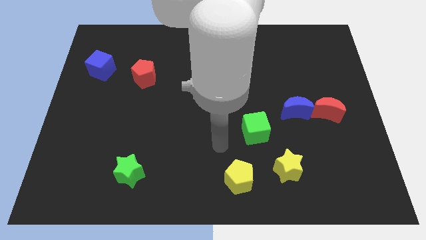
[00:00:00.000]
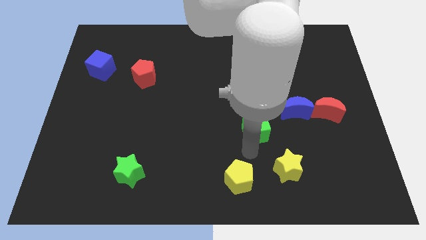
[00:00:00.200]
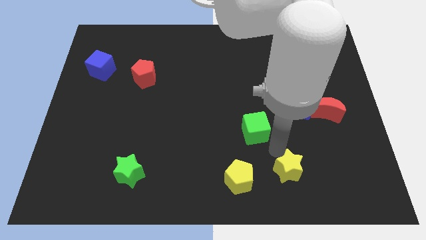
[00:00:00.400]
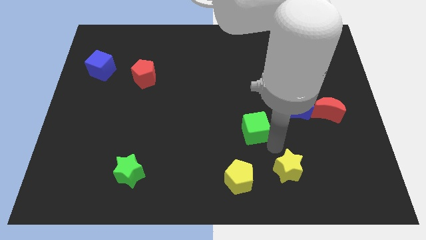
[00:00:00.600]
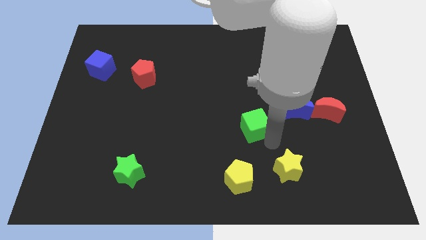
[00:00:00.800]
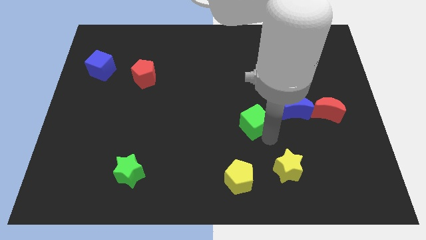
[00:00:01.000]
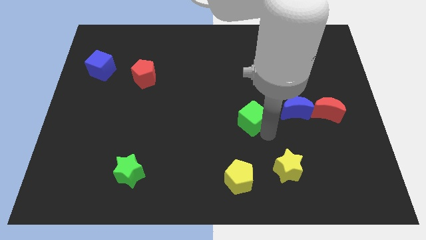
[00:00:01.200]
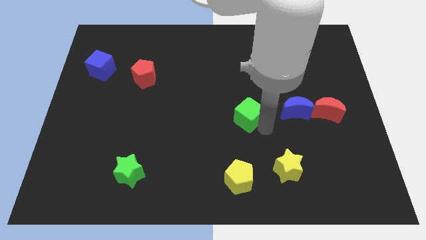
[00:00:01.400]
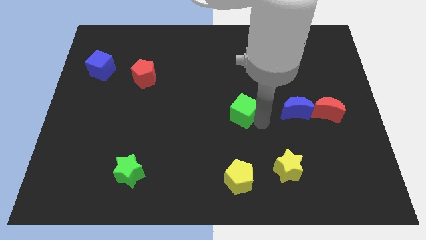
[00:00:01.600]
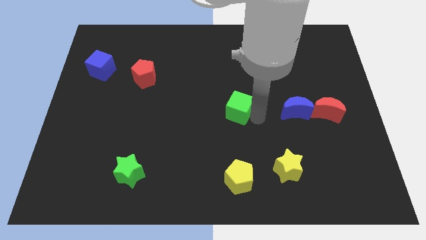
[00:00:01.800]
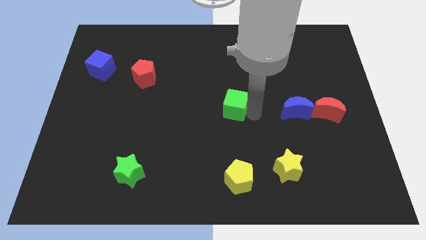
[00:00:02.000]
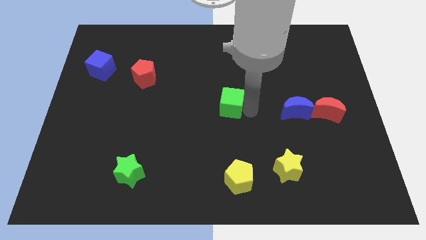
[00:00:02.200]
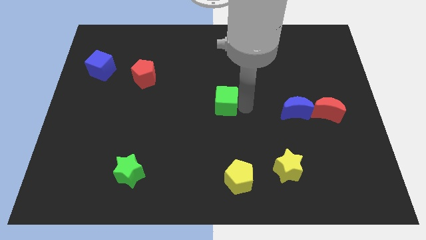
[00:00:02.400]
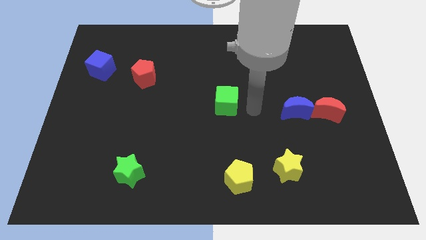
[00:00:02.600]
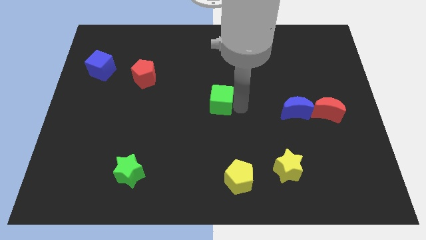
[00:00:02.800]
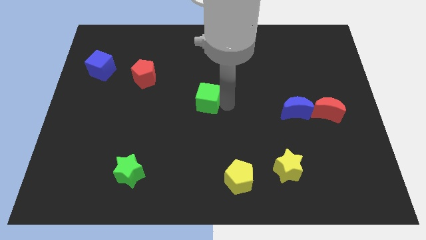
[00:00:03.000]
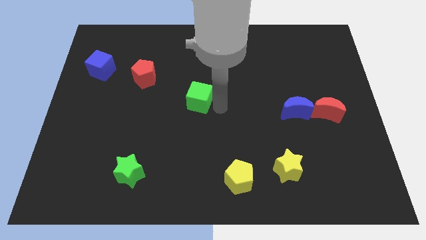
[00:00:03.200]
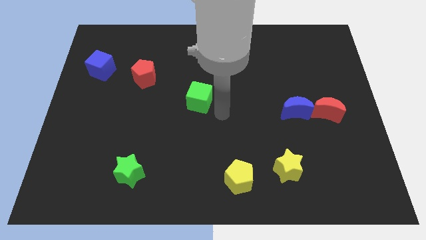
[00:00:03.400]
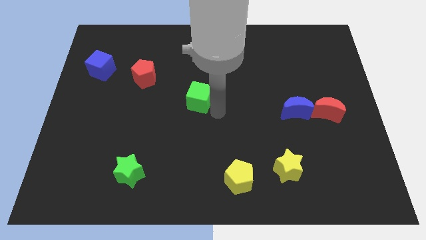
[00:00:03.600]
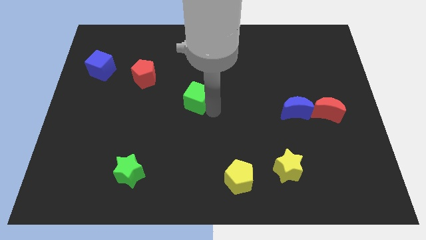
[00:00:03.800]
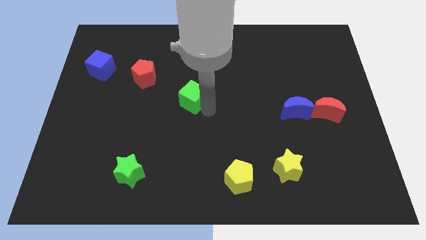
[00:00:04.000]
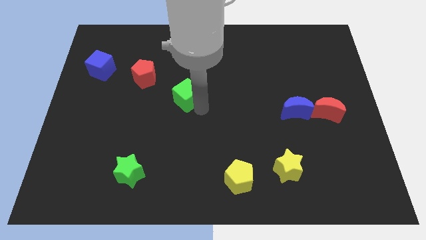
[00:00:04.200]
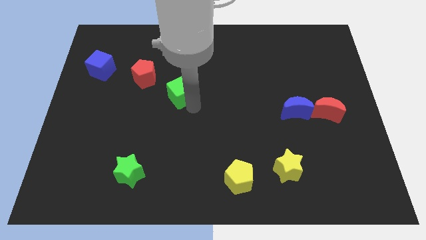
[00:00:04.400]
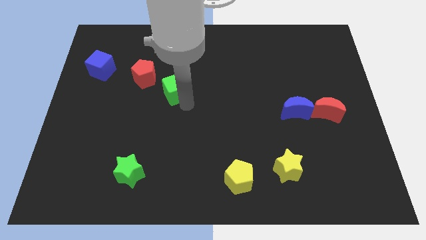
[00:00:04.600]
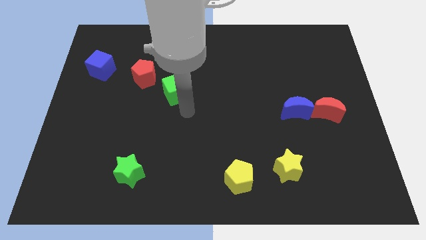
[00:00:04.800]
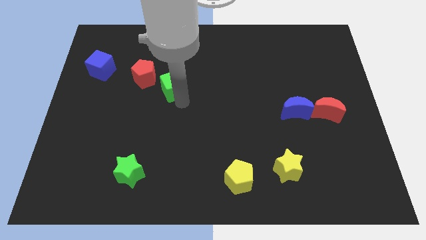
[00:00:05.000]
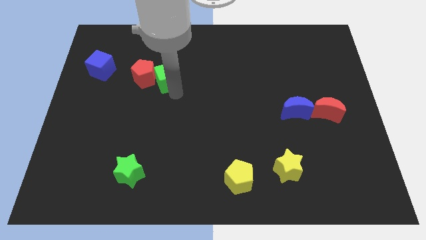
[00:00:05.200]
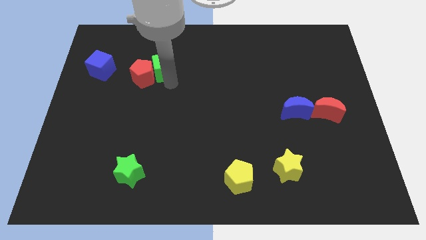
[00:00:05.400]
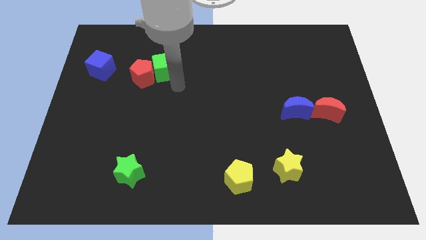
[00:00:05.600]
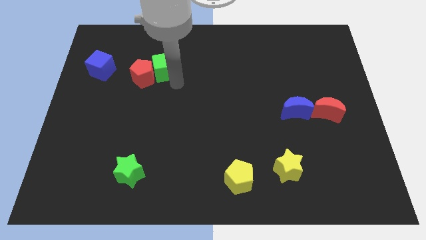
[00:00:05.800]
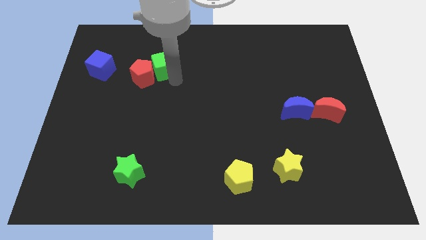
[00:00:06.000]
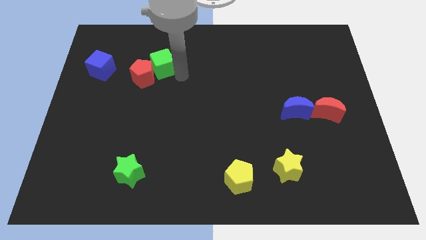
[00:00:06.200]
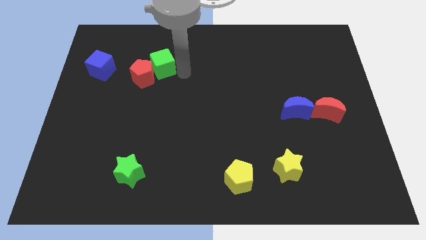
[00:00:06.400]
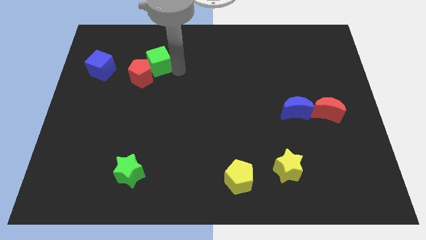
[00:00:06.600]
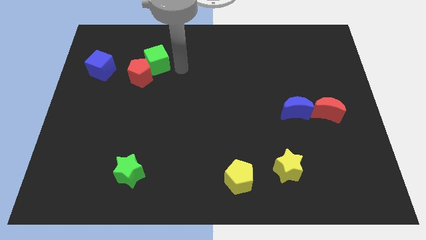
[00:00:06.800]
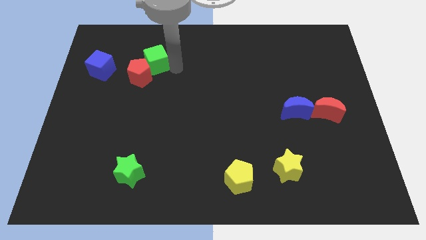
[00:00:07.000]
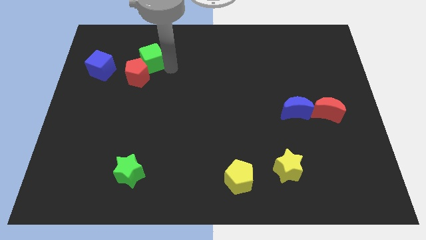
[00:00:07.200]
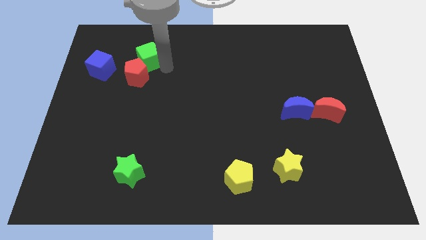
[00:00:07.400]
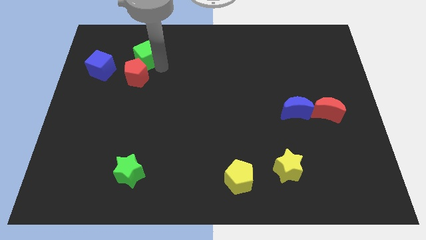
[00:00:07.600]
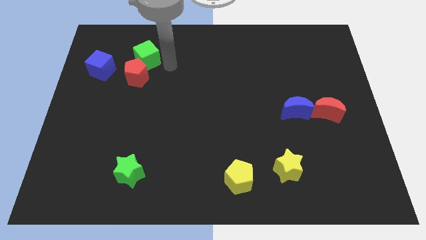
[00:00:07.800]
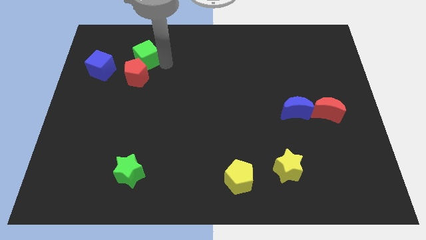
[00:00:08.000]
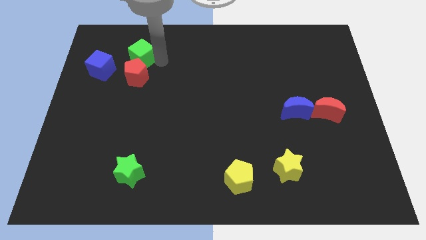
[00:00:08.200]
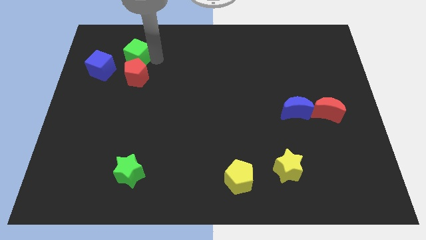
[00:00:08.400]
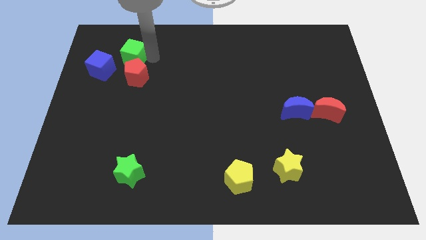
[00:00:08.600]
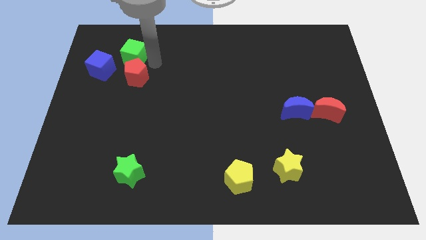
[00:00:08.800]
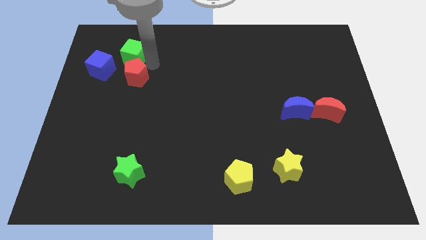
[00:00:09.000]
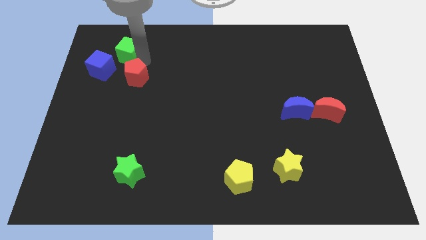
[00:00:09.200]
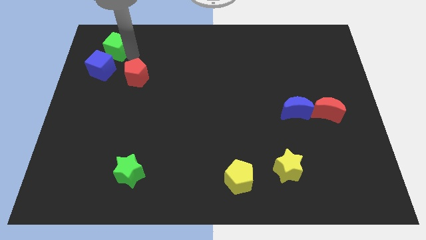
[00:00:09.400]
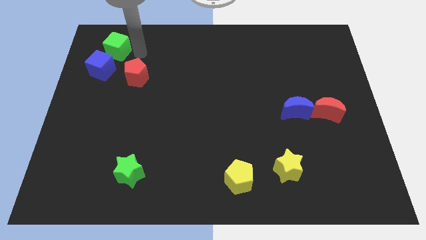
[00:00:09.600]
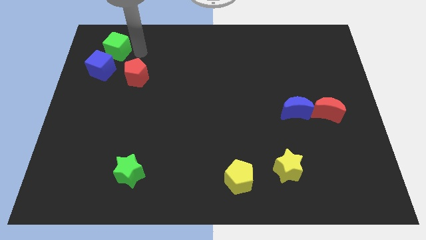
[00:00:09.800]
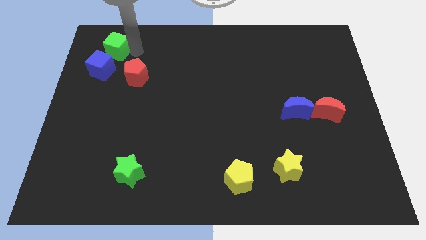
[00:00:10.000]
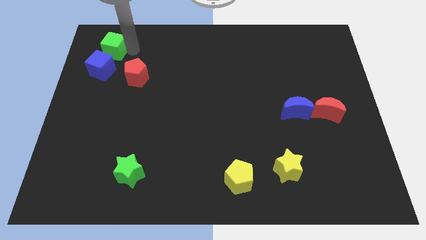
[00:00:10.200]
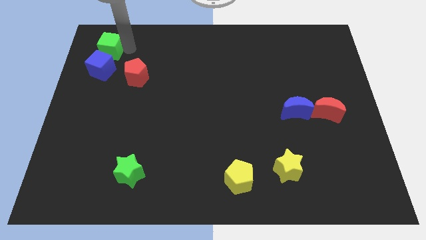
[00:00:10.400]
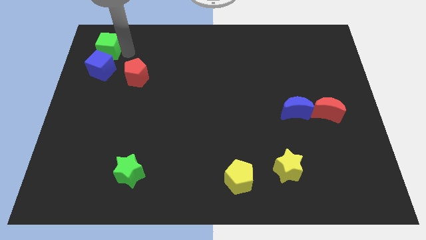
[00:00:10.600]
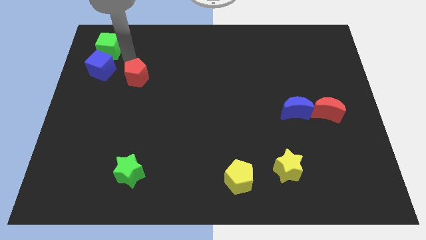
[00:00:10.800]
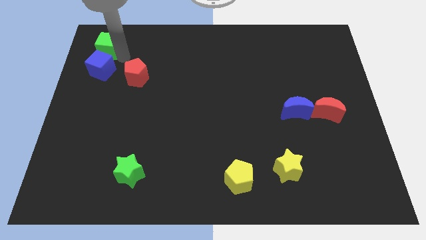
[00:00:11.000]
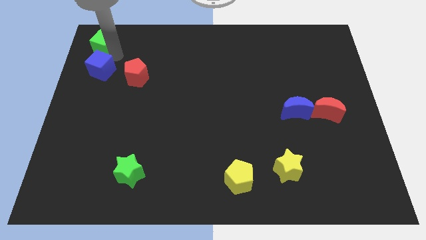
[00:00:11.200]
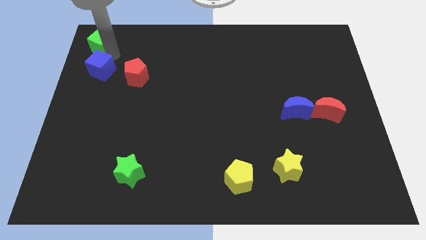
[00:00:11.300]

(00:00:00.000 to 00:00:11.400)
slide the green cube to the top left

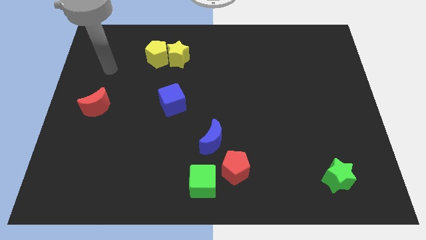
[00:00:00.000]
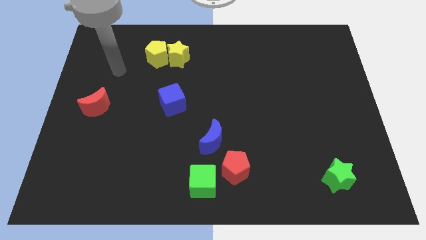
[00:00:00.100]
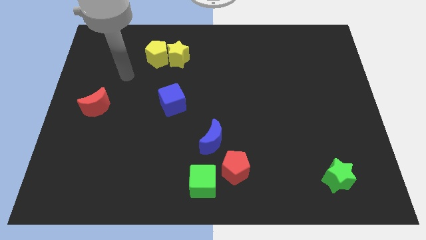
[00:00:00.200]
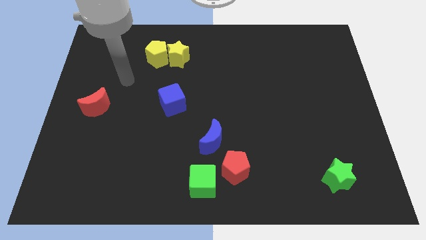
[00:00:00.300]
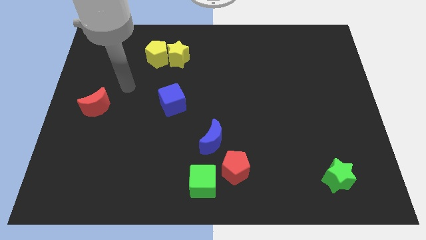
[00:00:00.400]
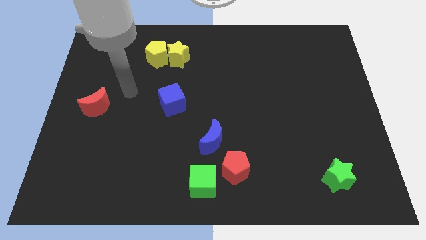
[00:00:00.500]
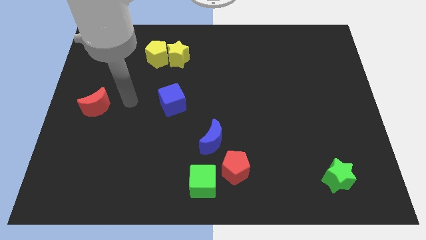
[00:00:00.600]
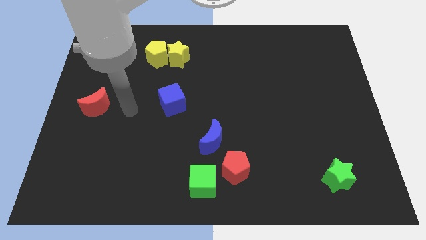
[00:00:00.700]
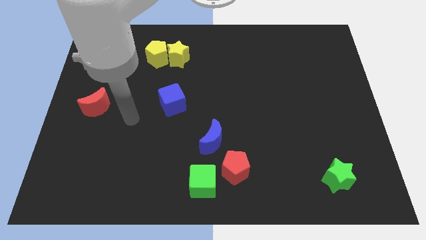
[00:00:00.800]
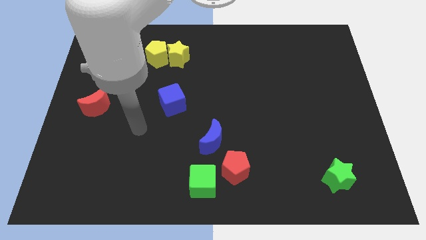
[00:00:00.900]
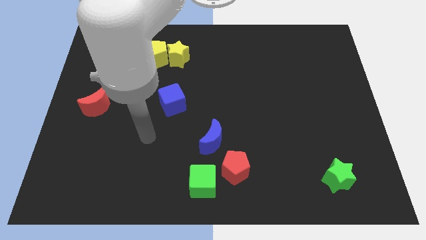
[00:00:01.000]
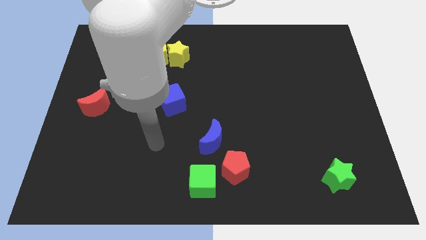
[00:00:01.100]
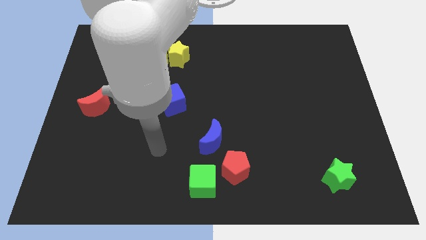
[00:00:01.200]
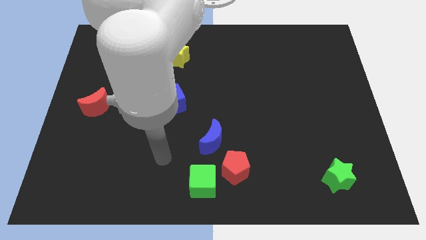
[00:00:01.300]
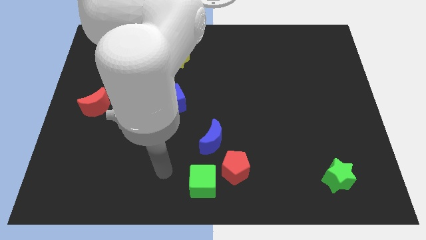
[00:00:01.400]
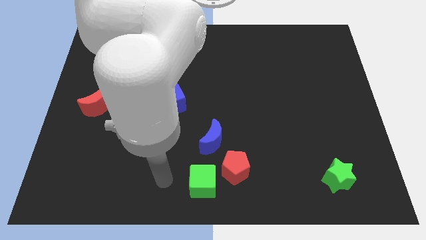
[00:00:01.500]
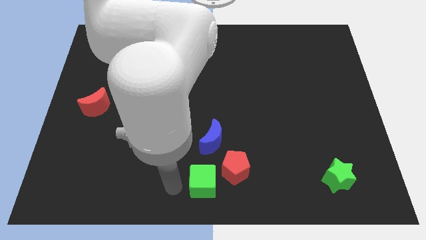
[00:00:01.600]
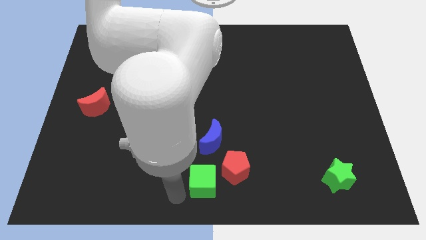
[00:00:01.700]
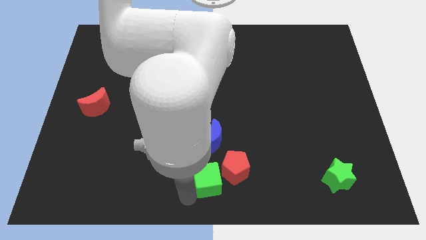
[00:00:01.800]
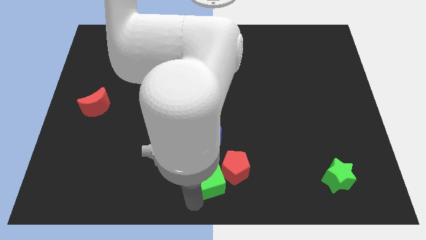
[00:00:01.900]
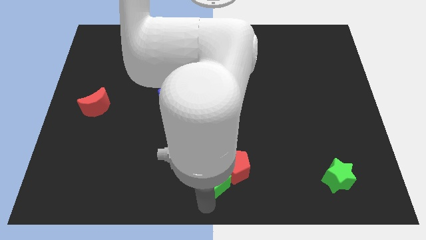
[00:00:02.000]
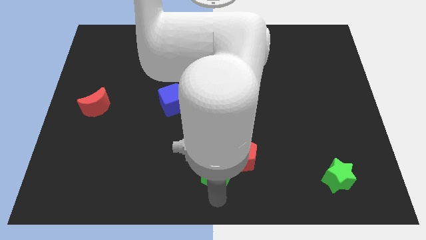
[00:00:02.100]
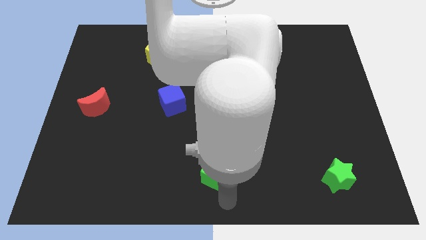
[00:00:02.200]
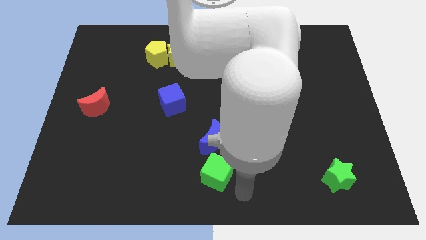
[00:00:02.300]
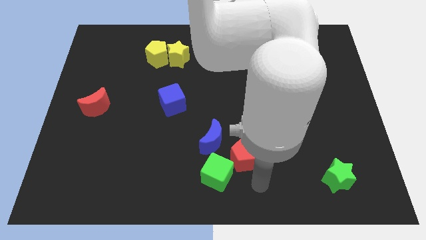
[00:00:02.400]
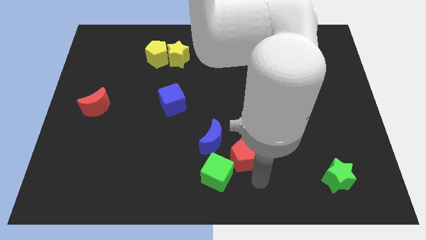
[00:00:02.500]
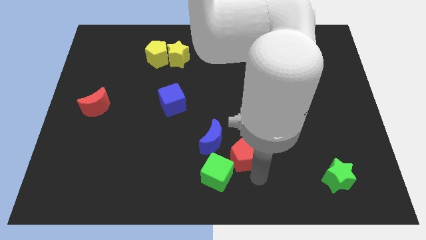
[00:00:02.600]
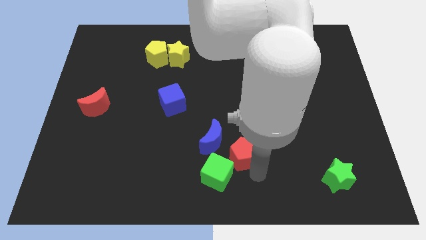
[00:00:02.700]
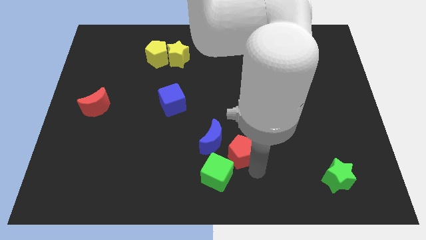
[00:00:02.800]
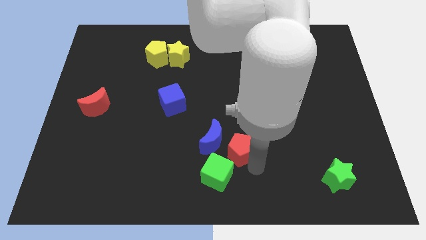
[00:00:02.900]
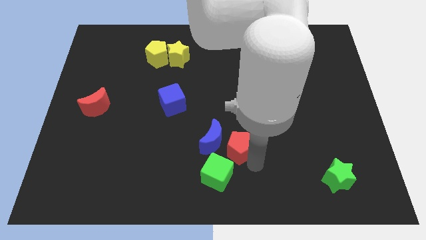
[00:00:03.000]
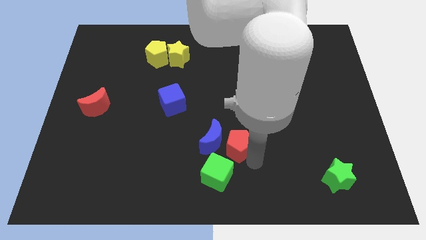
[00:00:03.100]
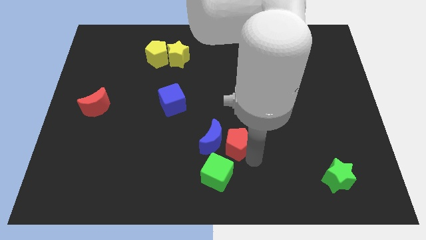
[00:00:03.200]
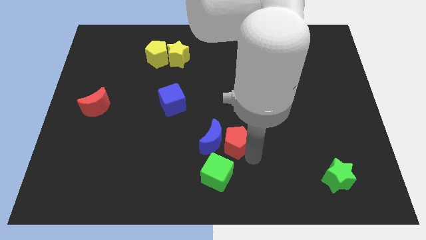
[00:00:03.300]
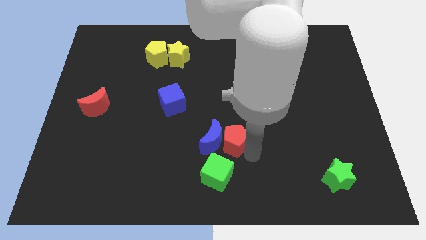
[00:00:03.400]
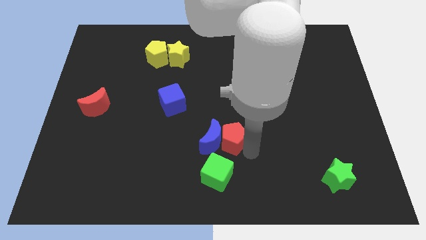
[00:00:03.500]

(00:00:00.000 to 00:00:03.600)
slide the red pentagon to the middle
